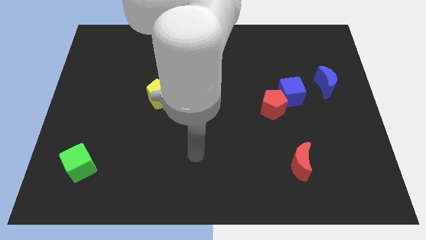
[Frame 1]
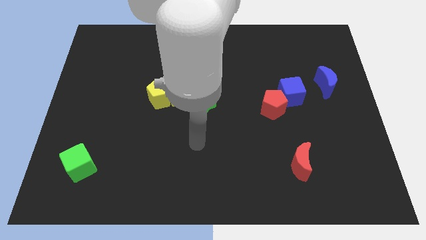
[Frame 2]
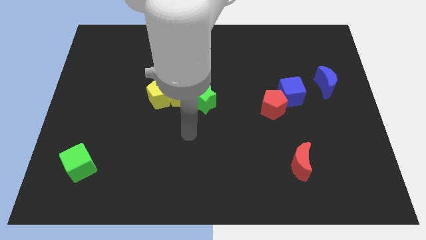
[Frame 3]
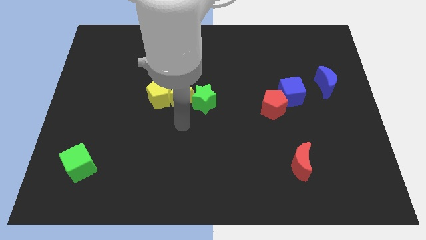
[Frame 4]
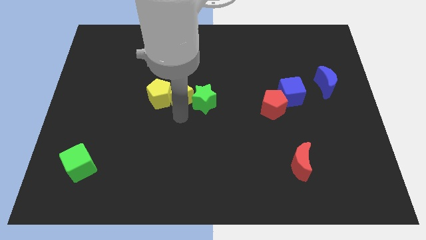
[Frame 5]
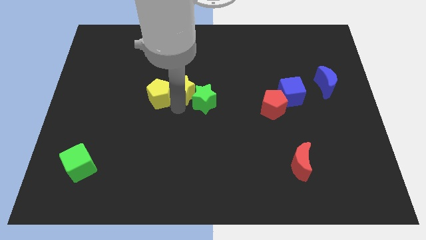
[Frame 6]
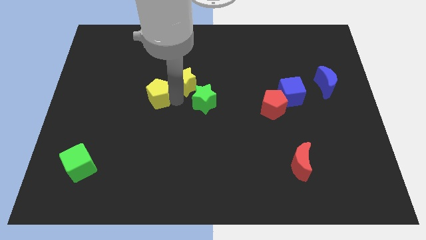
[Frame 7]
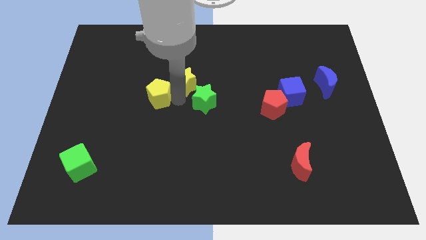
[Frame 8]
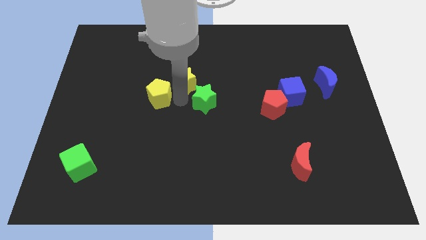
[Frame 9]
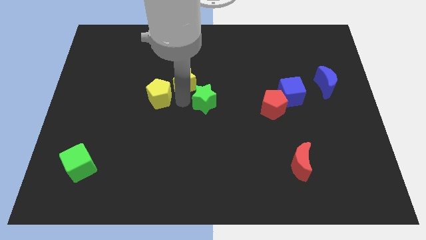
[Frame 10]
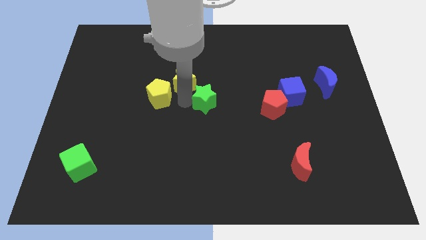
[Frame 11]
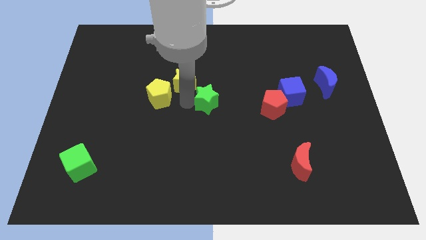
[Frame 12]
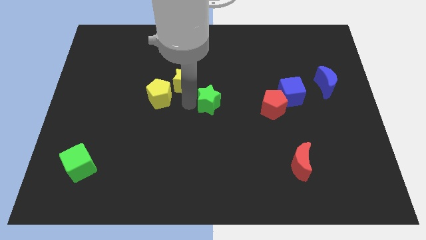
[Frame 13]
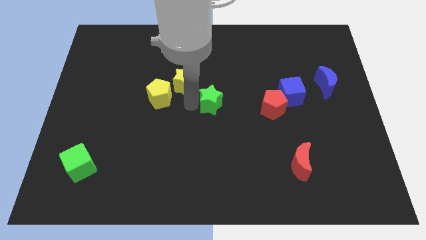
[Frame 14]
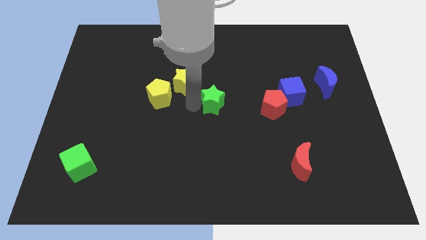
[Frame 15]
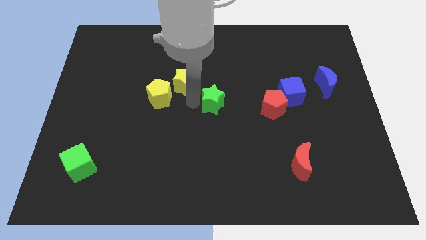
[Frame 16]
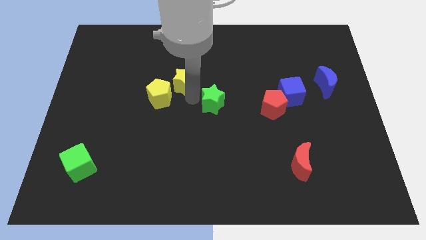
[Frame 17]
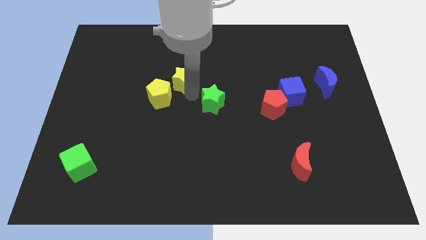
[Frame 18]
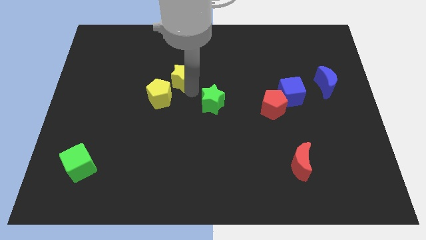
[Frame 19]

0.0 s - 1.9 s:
pull the green star apart from the yellow star

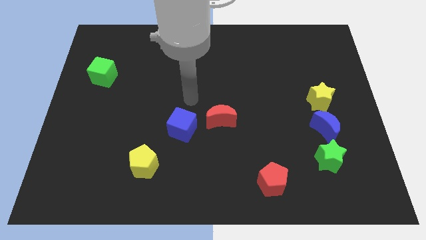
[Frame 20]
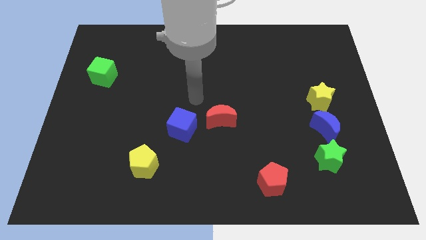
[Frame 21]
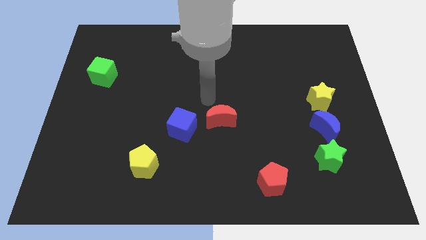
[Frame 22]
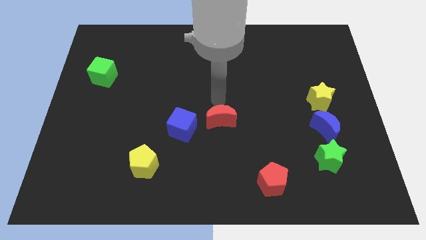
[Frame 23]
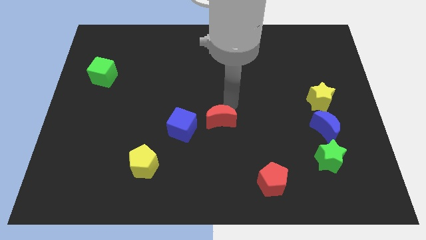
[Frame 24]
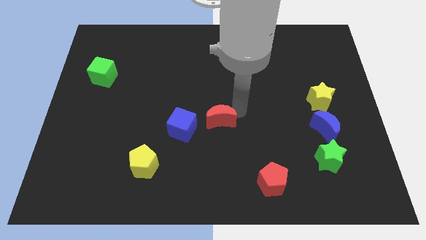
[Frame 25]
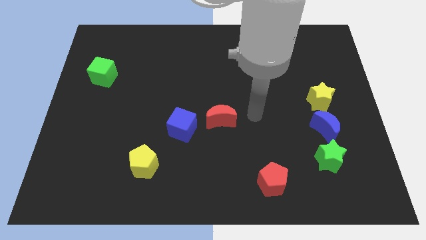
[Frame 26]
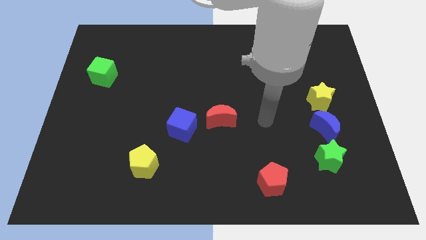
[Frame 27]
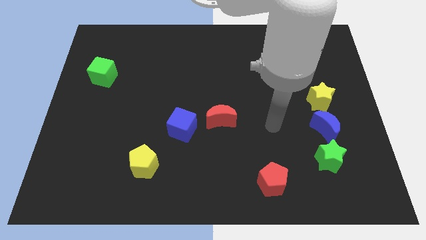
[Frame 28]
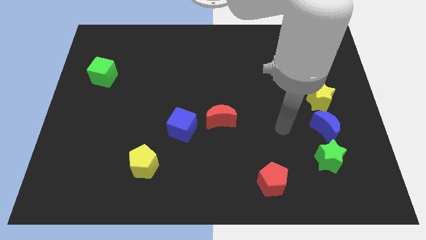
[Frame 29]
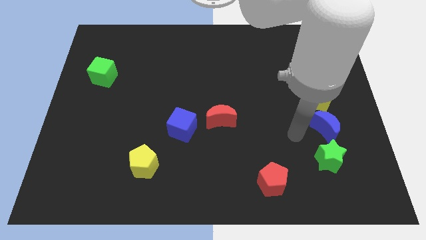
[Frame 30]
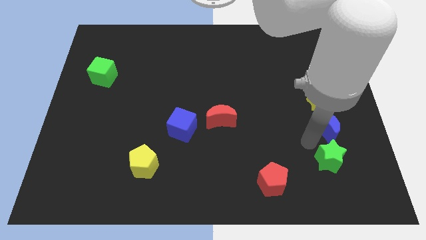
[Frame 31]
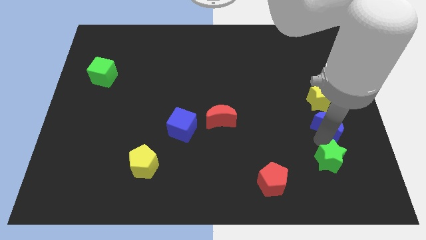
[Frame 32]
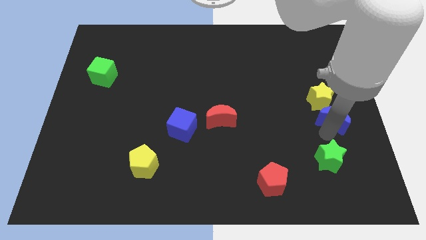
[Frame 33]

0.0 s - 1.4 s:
separate the green star from the blue moon

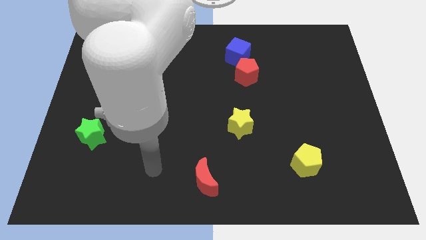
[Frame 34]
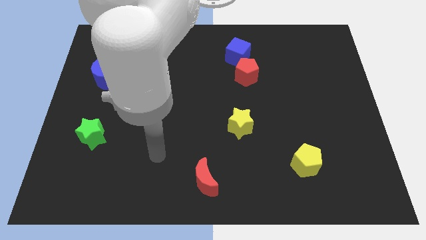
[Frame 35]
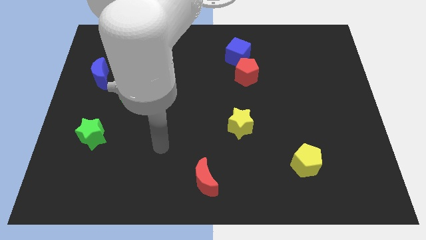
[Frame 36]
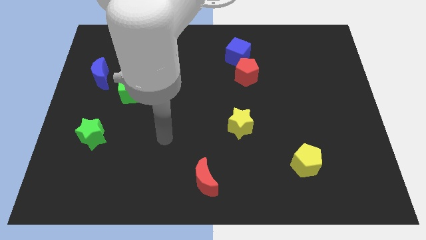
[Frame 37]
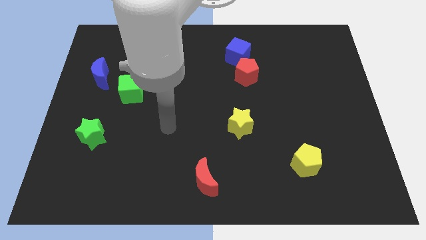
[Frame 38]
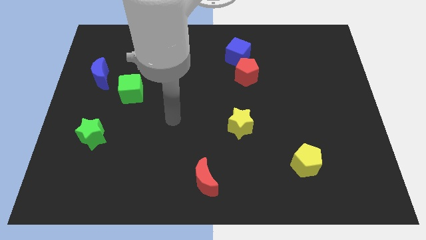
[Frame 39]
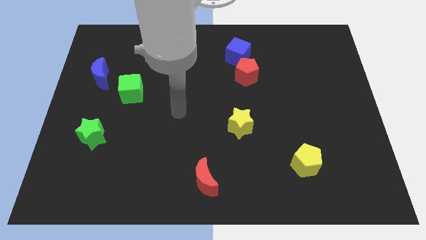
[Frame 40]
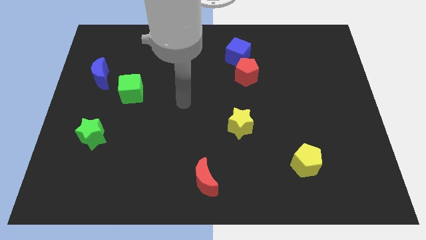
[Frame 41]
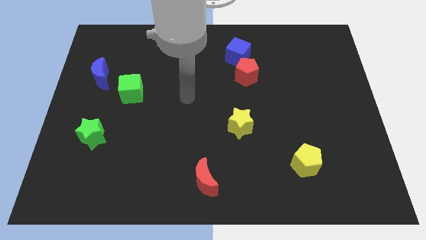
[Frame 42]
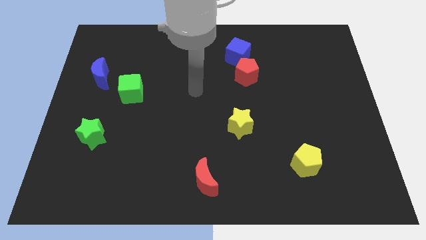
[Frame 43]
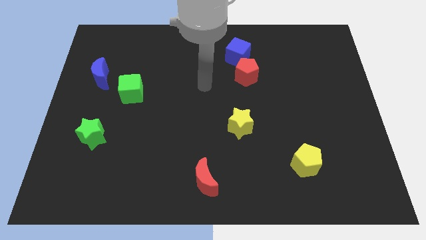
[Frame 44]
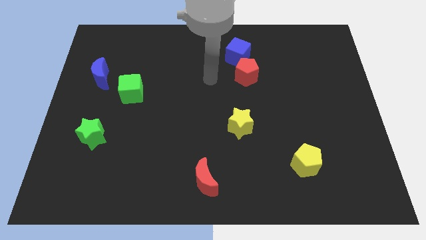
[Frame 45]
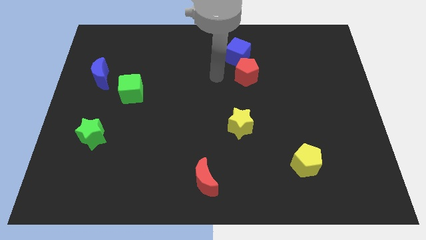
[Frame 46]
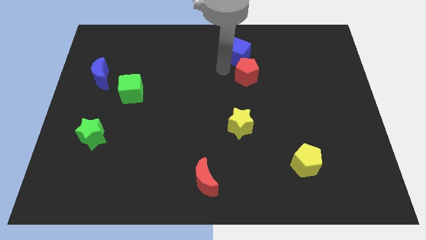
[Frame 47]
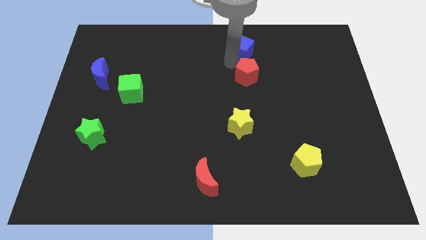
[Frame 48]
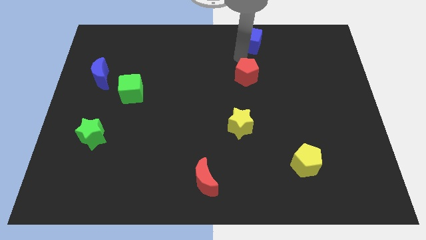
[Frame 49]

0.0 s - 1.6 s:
separate the red pentagon from the blue cube

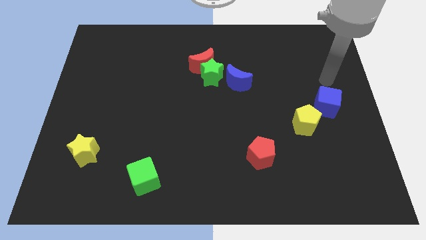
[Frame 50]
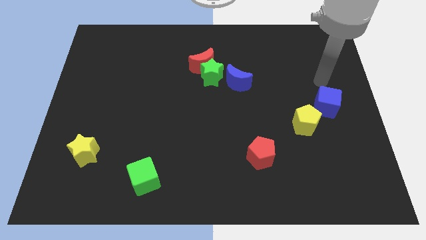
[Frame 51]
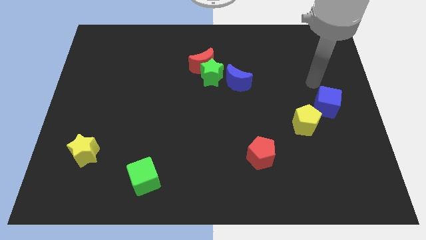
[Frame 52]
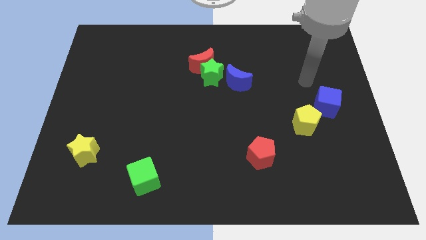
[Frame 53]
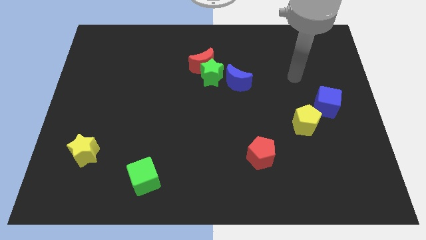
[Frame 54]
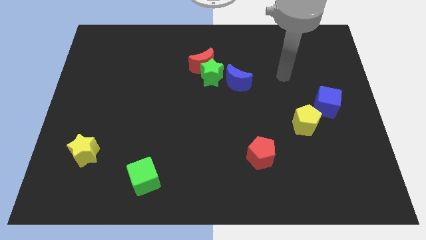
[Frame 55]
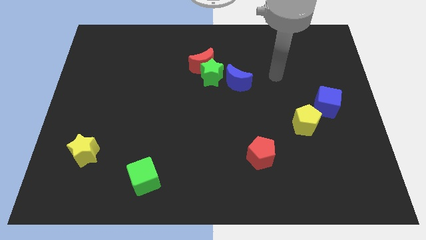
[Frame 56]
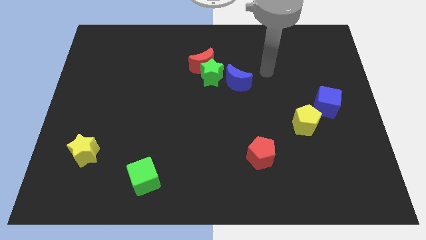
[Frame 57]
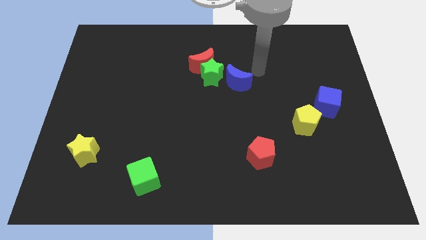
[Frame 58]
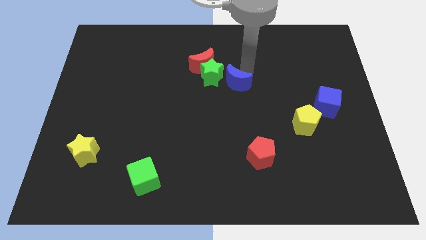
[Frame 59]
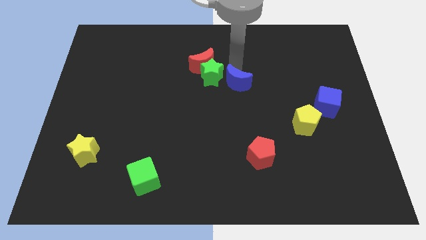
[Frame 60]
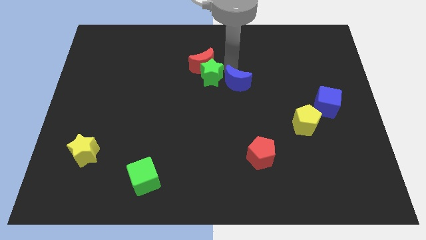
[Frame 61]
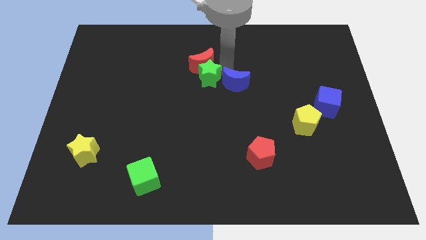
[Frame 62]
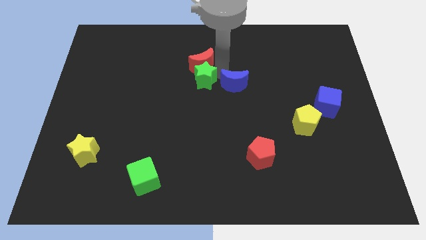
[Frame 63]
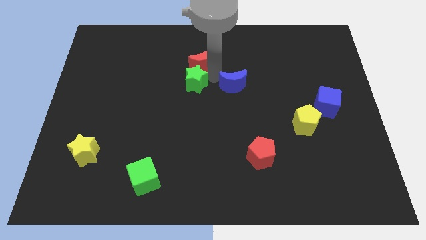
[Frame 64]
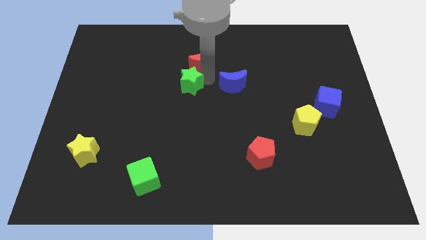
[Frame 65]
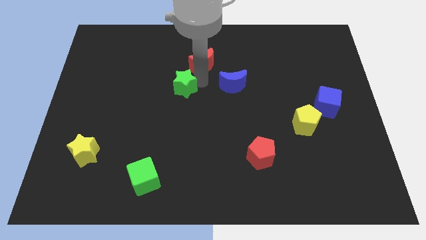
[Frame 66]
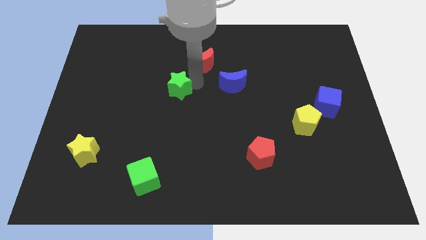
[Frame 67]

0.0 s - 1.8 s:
pull the green star apart from the red moon and blue moon

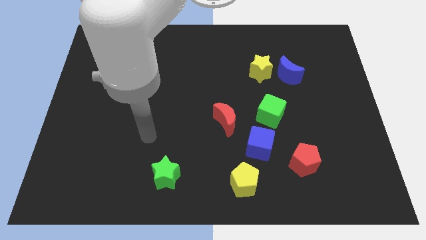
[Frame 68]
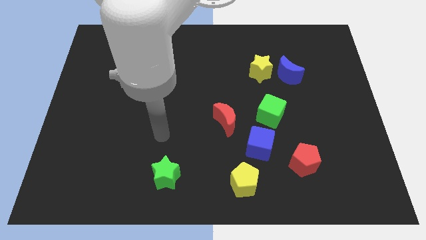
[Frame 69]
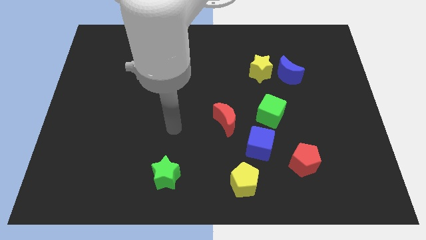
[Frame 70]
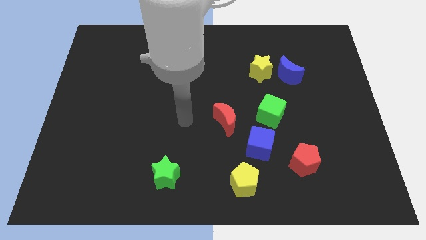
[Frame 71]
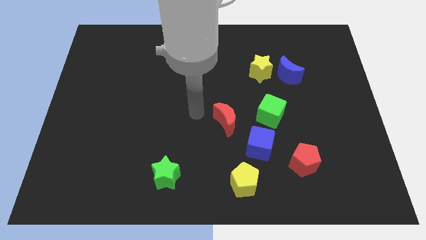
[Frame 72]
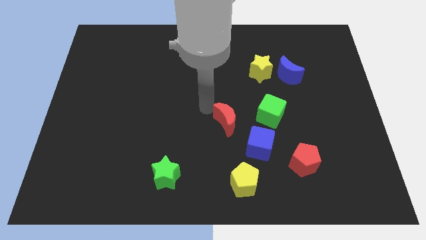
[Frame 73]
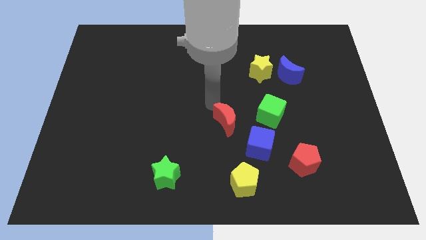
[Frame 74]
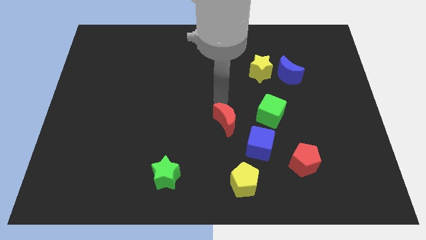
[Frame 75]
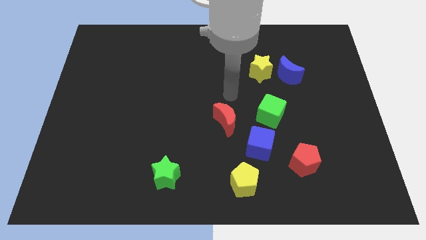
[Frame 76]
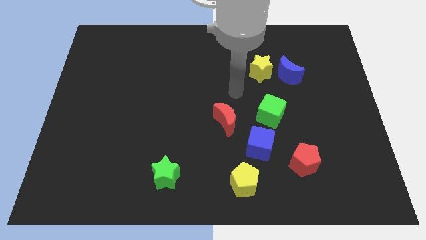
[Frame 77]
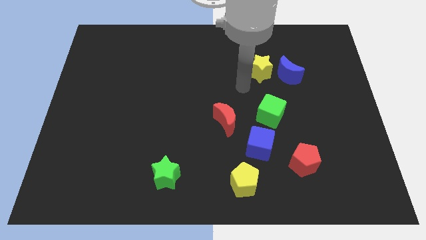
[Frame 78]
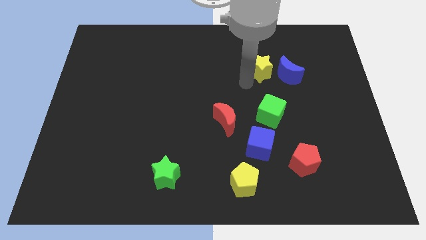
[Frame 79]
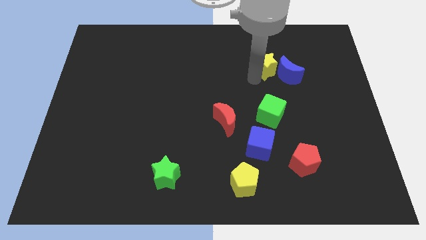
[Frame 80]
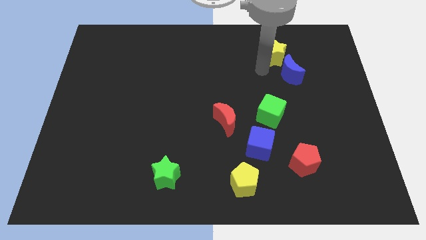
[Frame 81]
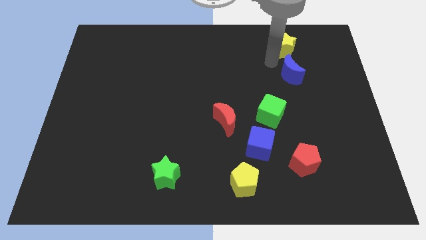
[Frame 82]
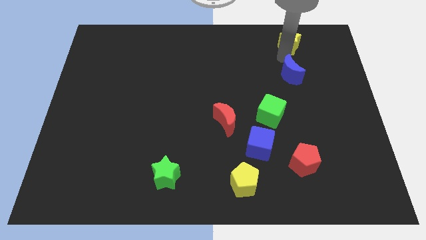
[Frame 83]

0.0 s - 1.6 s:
move the blue moon away from the yellow star

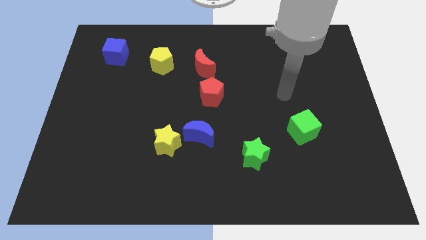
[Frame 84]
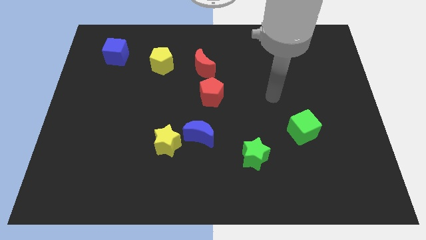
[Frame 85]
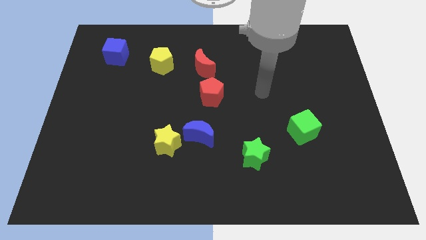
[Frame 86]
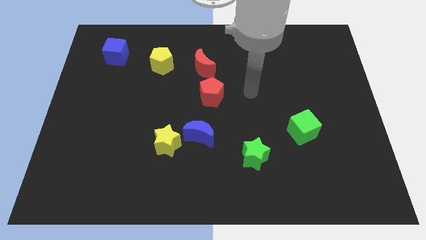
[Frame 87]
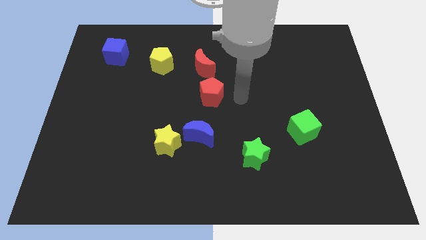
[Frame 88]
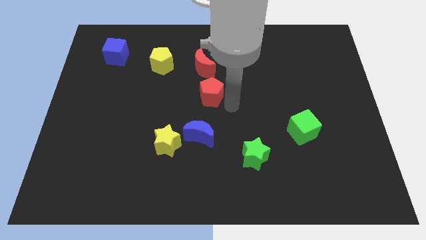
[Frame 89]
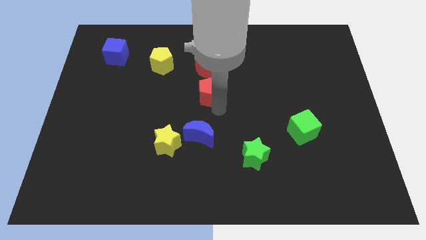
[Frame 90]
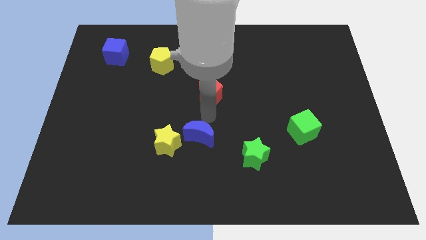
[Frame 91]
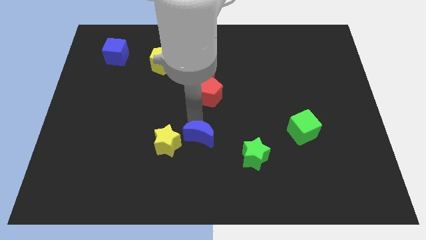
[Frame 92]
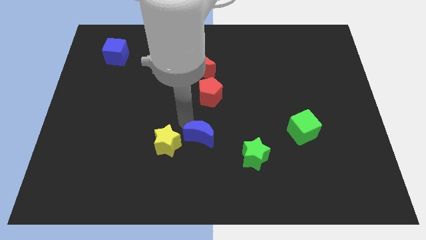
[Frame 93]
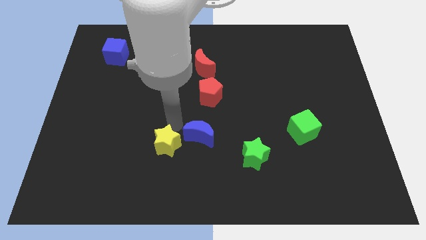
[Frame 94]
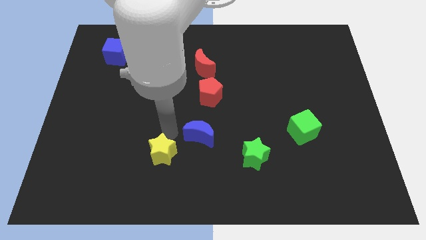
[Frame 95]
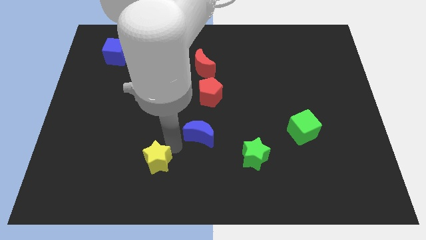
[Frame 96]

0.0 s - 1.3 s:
separate the blue moon from the yellow star
